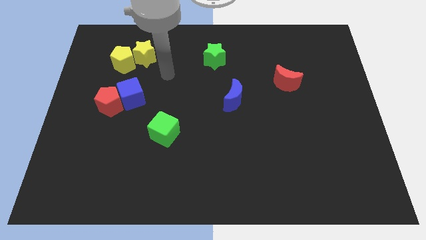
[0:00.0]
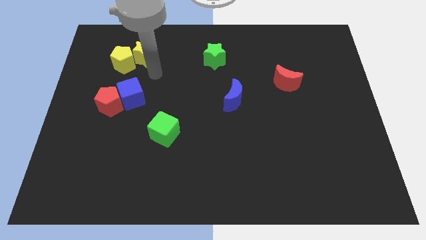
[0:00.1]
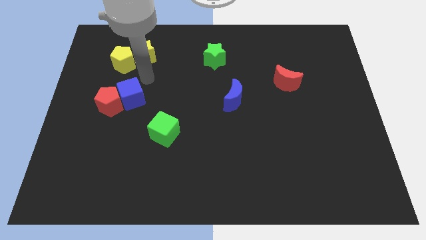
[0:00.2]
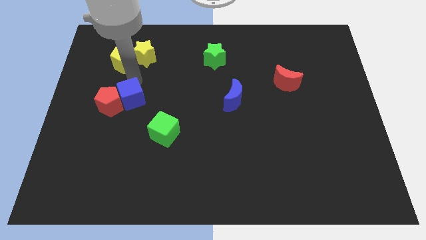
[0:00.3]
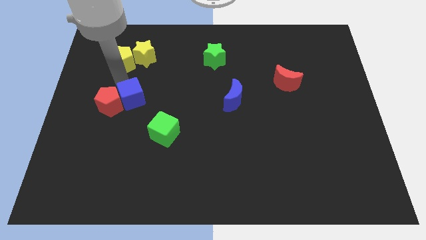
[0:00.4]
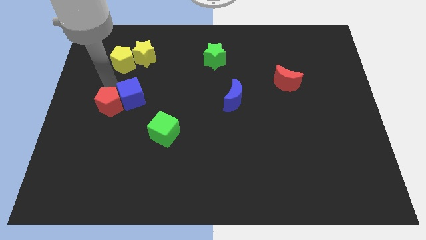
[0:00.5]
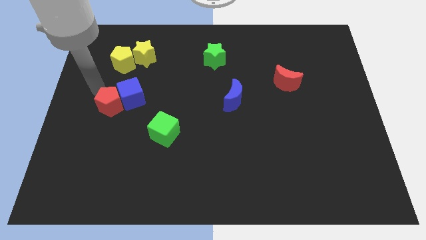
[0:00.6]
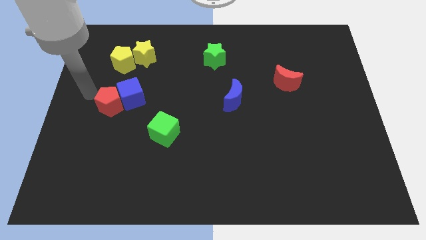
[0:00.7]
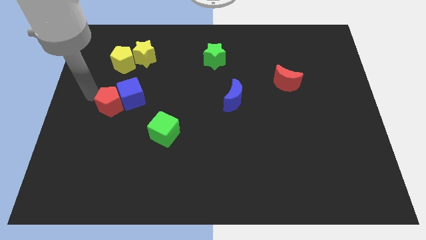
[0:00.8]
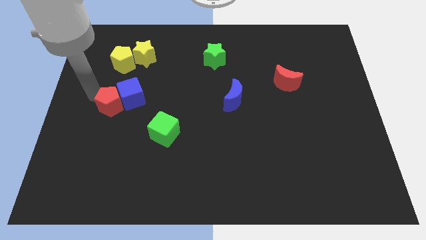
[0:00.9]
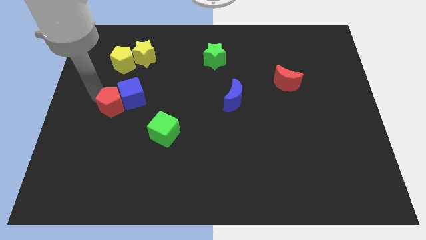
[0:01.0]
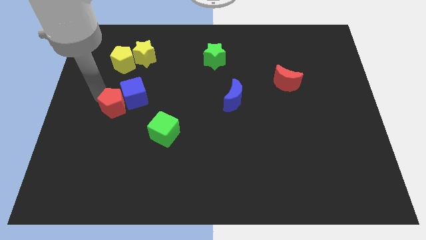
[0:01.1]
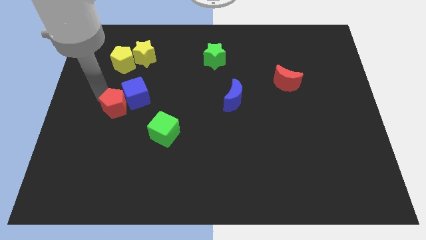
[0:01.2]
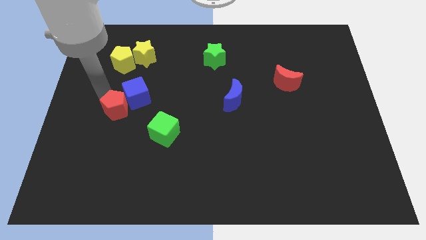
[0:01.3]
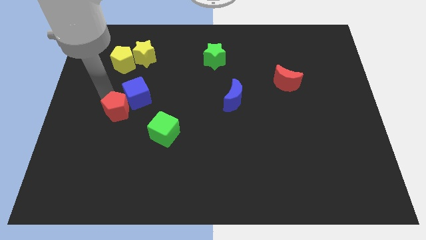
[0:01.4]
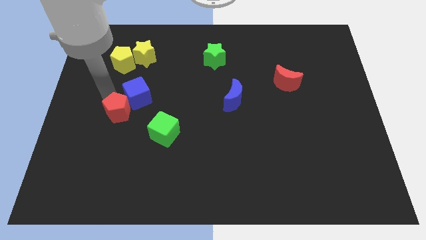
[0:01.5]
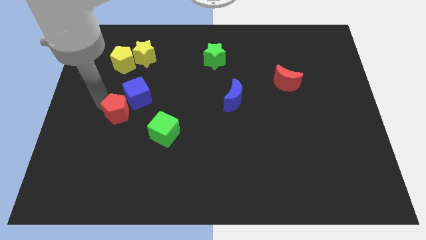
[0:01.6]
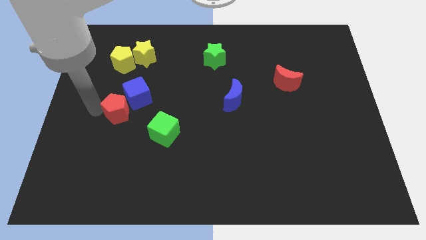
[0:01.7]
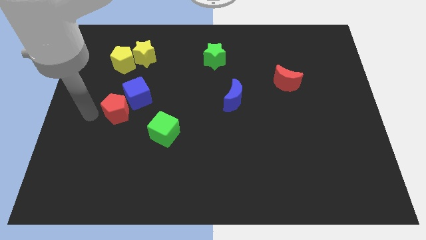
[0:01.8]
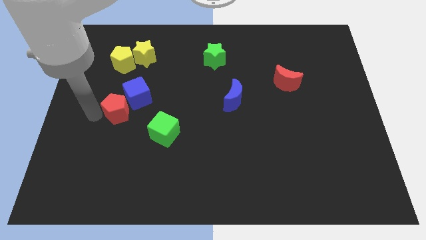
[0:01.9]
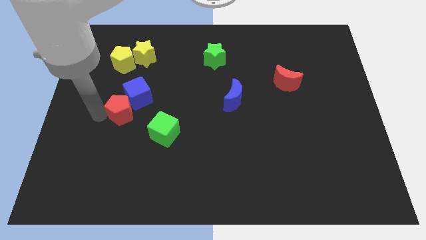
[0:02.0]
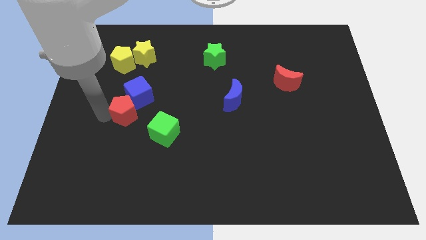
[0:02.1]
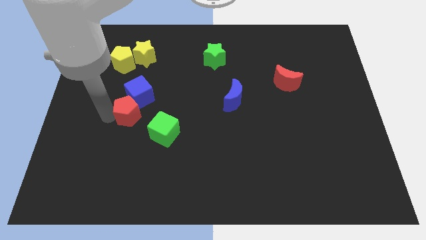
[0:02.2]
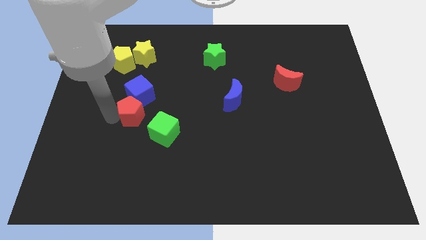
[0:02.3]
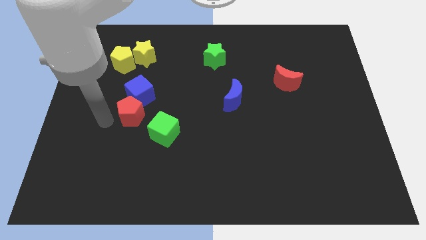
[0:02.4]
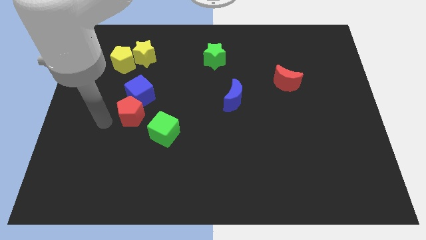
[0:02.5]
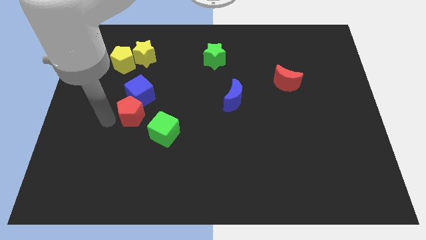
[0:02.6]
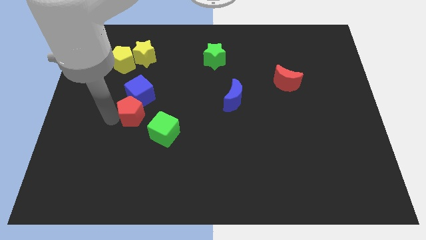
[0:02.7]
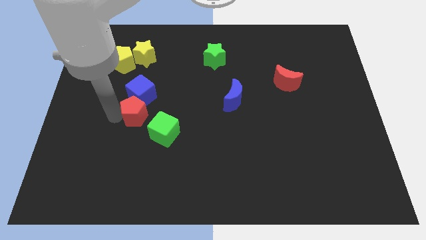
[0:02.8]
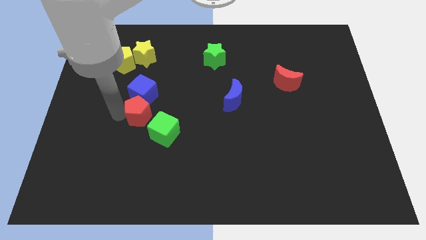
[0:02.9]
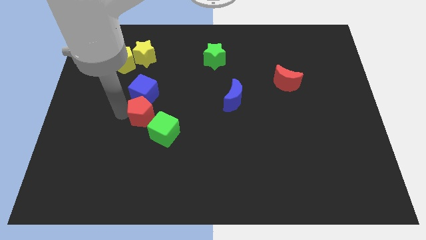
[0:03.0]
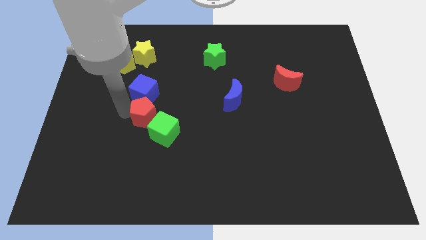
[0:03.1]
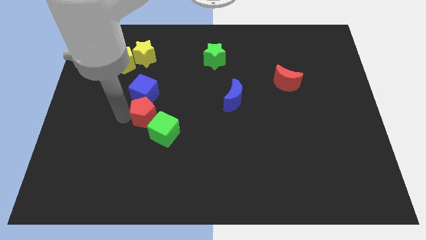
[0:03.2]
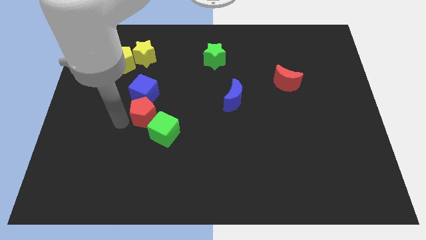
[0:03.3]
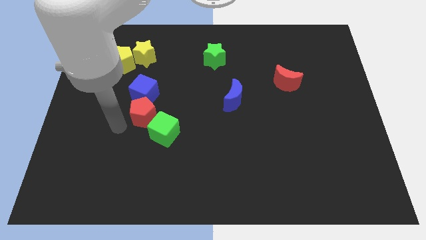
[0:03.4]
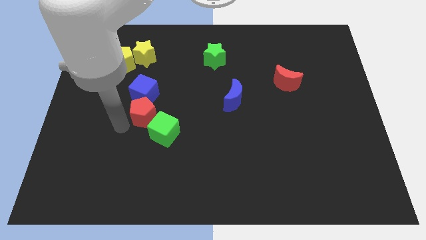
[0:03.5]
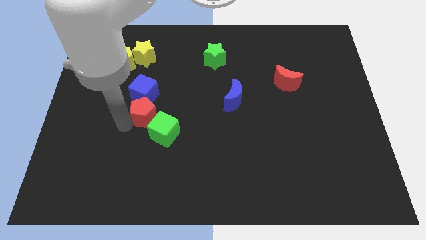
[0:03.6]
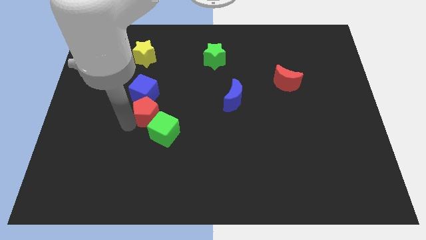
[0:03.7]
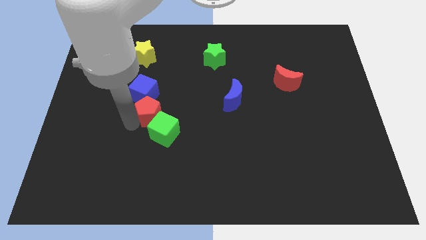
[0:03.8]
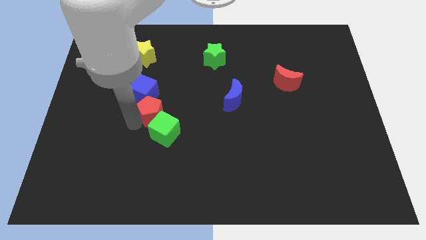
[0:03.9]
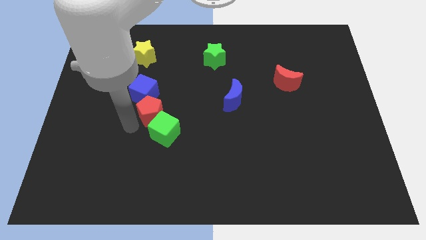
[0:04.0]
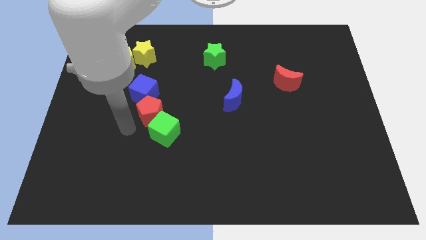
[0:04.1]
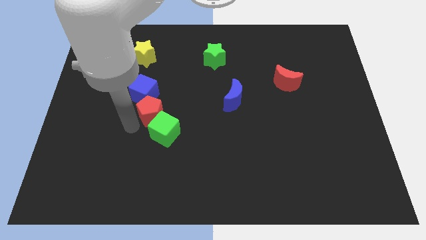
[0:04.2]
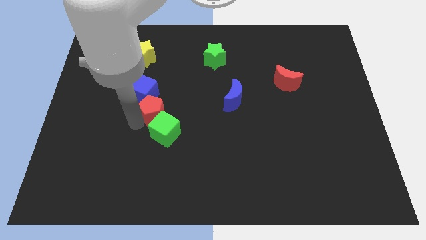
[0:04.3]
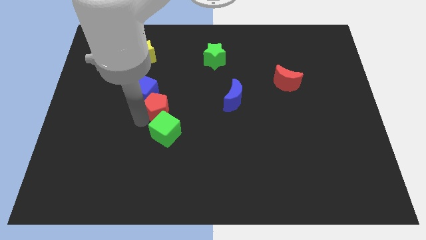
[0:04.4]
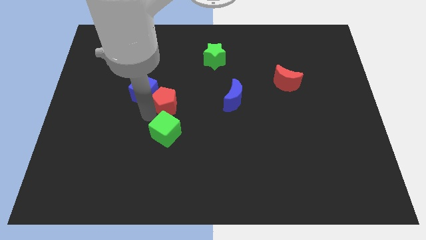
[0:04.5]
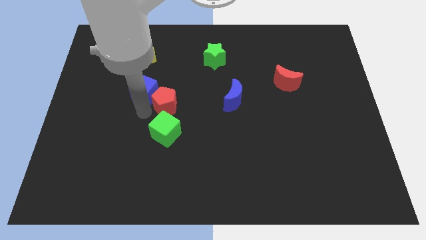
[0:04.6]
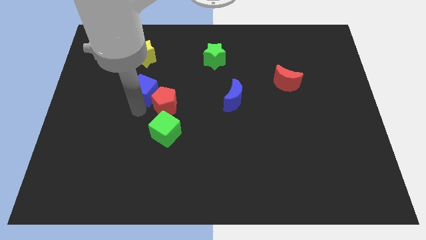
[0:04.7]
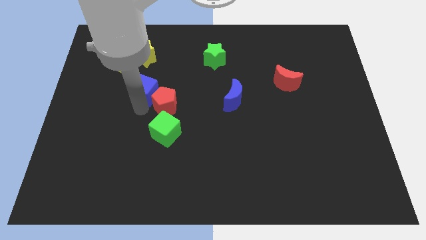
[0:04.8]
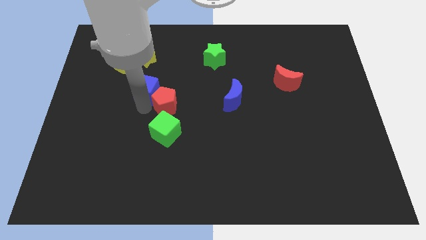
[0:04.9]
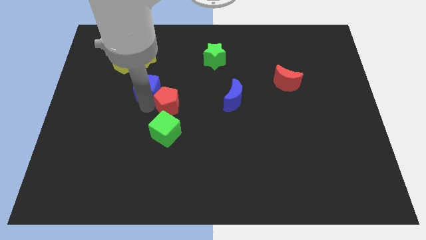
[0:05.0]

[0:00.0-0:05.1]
move the red pentagon to the left of the blue moon
